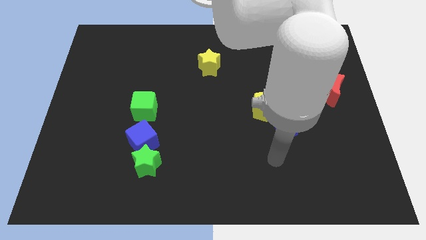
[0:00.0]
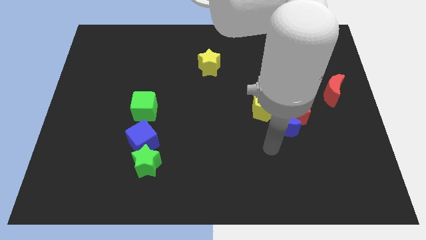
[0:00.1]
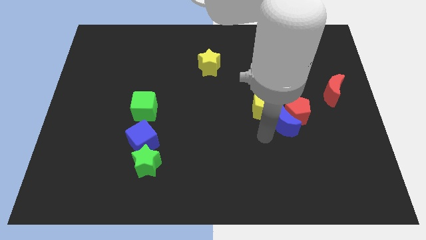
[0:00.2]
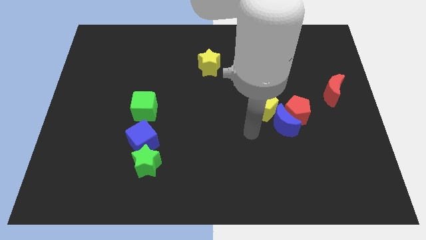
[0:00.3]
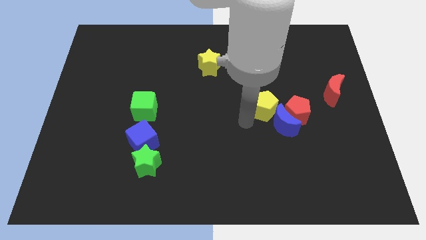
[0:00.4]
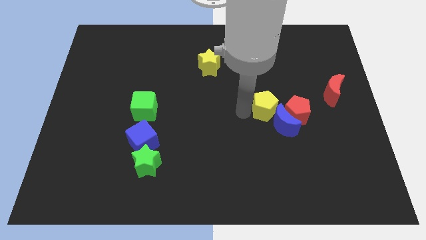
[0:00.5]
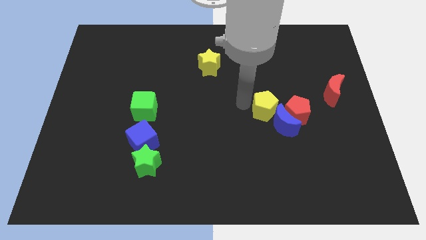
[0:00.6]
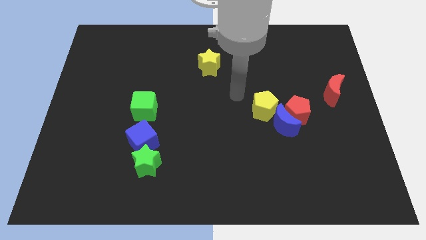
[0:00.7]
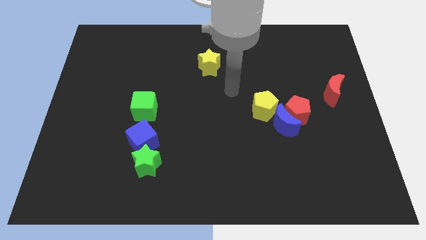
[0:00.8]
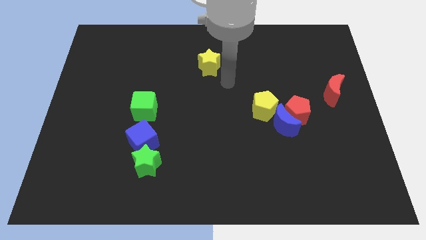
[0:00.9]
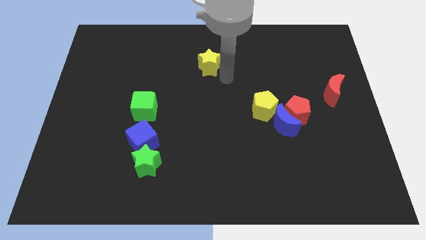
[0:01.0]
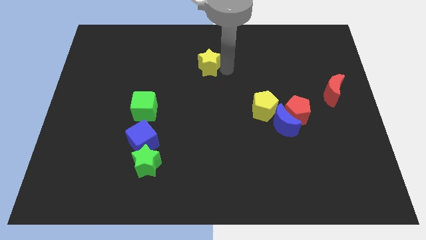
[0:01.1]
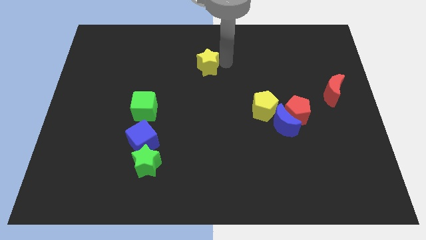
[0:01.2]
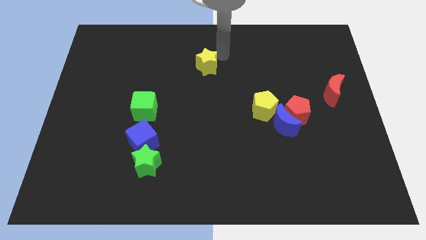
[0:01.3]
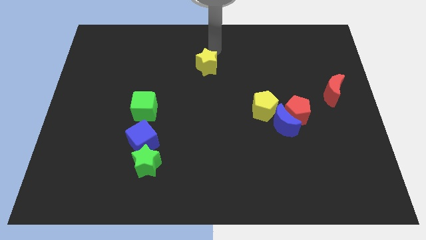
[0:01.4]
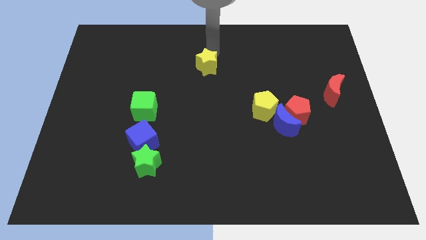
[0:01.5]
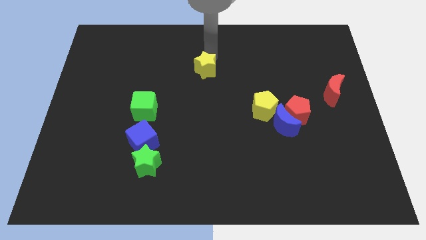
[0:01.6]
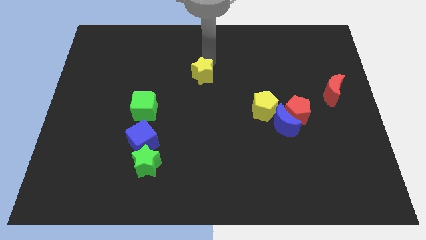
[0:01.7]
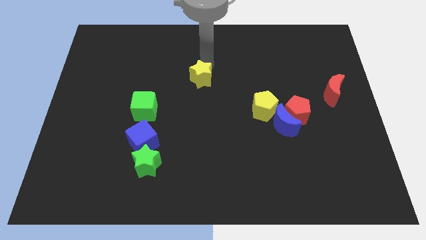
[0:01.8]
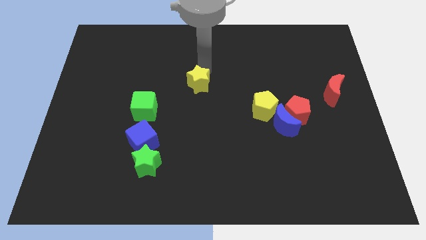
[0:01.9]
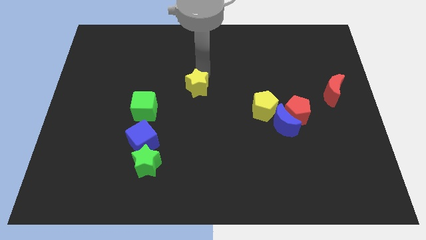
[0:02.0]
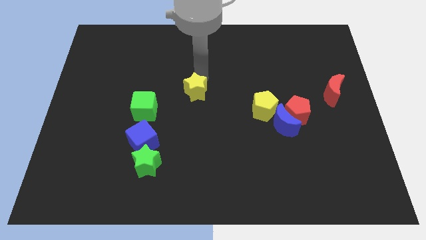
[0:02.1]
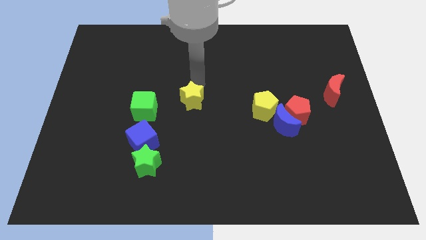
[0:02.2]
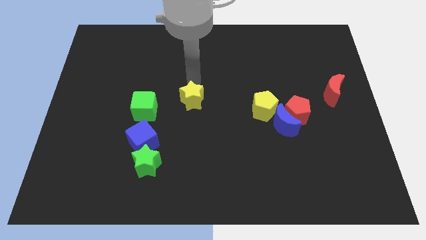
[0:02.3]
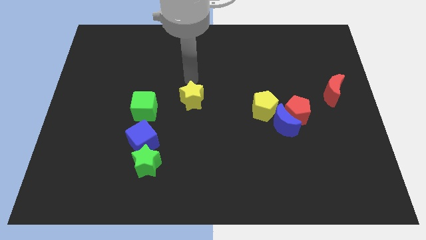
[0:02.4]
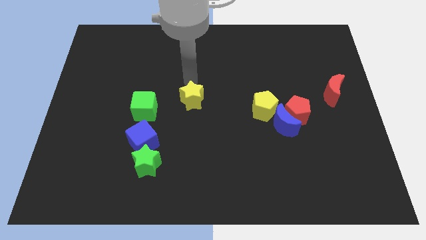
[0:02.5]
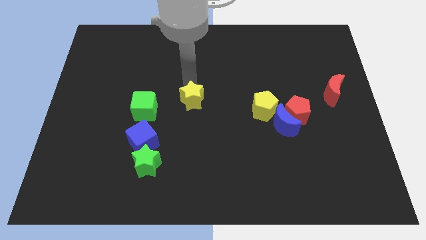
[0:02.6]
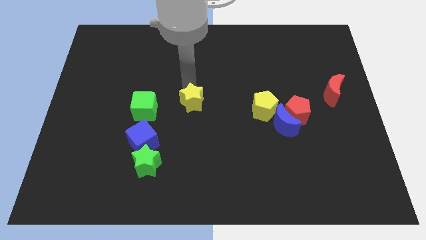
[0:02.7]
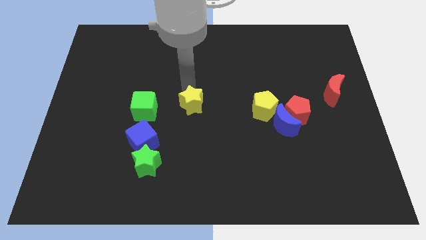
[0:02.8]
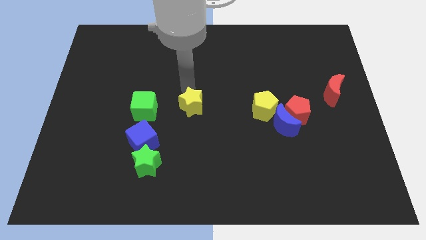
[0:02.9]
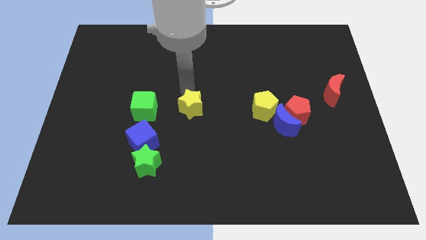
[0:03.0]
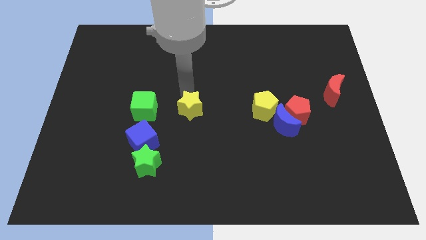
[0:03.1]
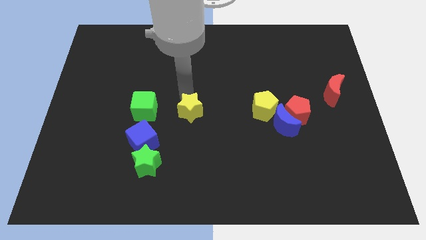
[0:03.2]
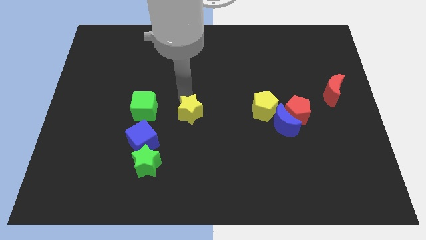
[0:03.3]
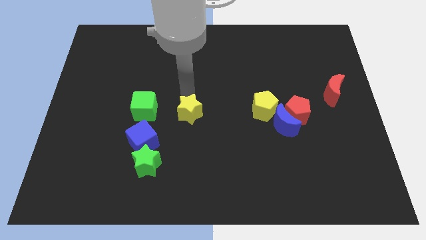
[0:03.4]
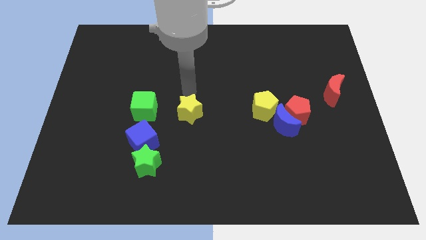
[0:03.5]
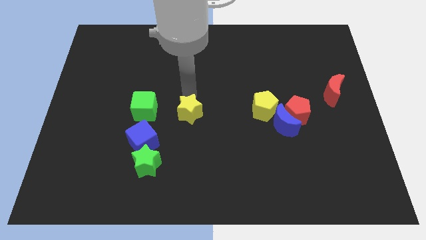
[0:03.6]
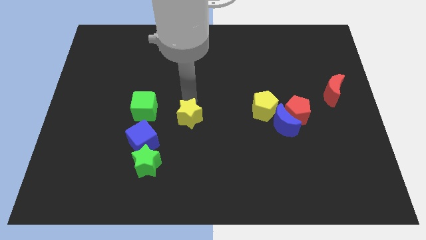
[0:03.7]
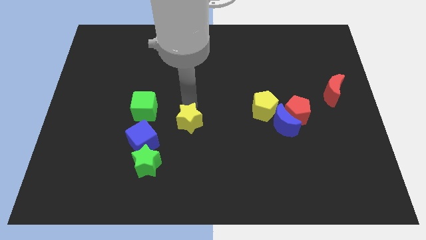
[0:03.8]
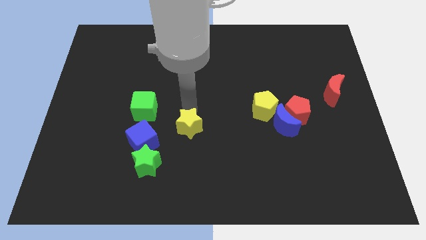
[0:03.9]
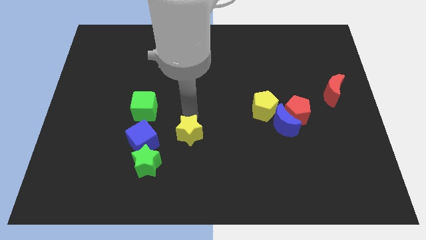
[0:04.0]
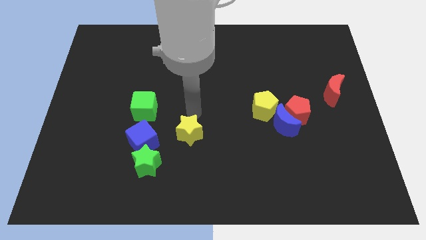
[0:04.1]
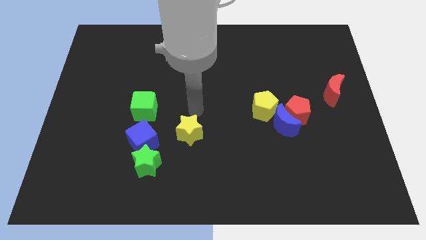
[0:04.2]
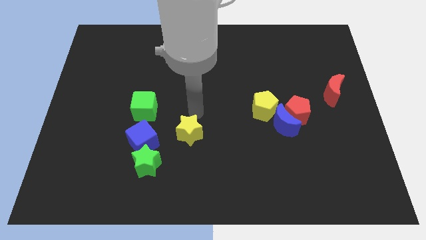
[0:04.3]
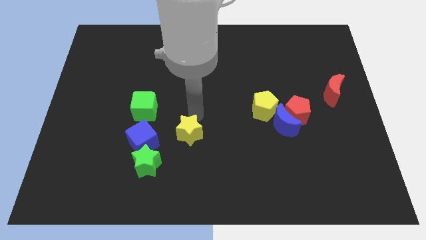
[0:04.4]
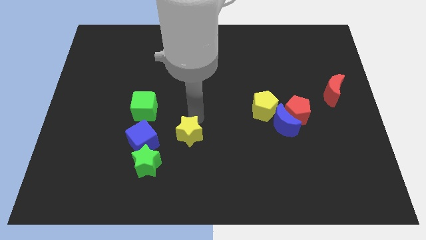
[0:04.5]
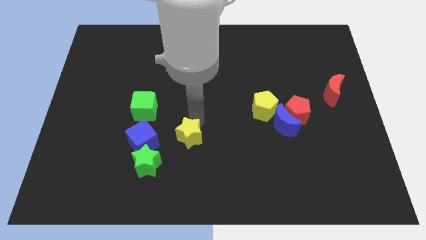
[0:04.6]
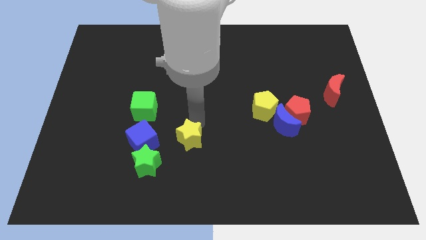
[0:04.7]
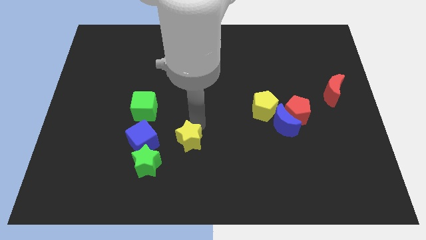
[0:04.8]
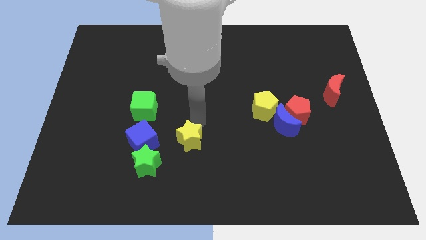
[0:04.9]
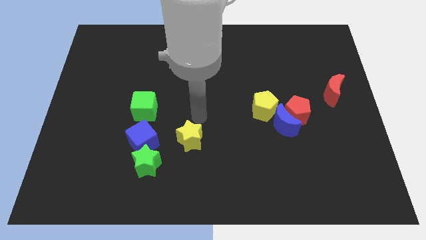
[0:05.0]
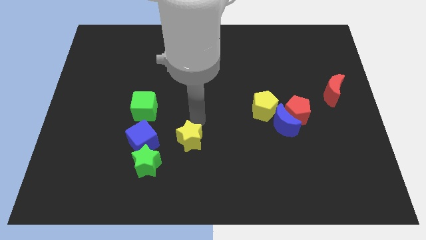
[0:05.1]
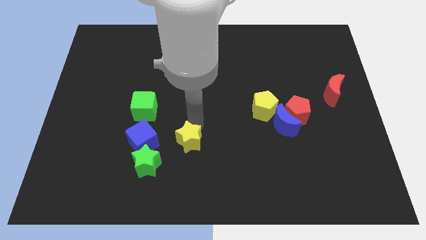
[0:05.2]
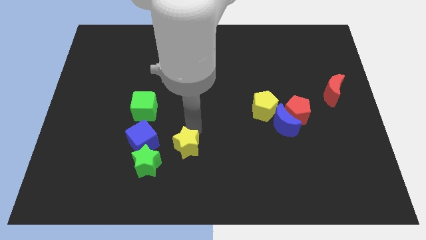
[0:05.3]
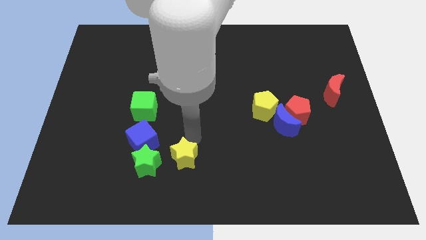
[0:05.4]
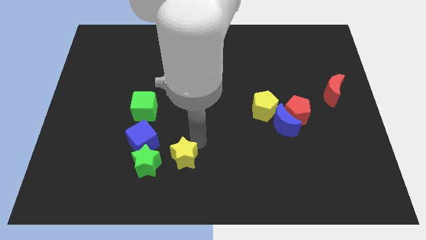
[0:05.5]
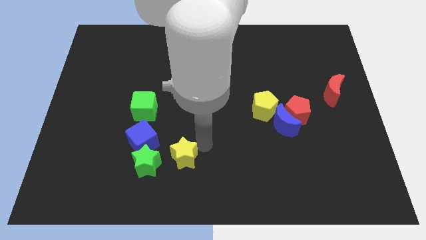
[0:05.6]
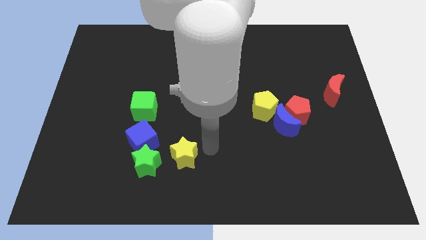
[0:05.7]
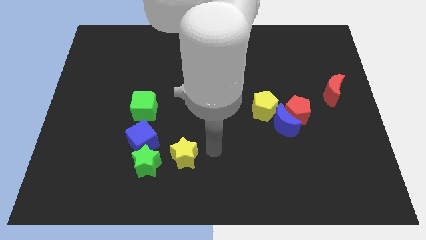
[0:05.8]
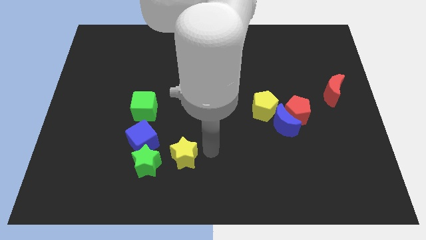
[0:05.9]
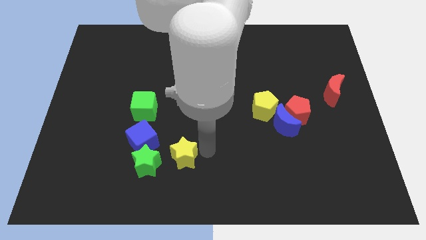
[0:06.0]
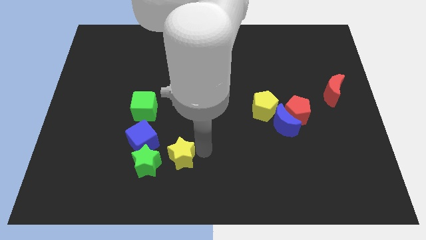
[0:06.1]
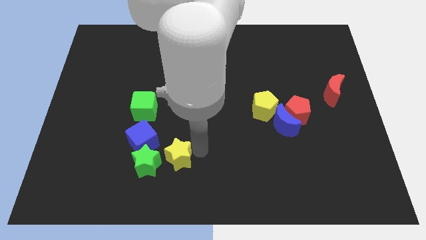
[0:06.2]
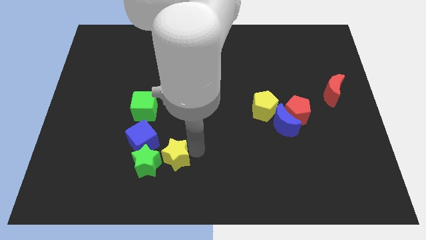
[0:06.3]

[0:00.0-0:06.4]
slide the yellow star to the green star

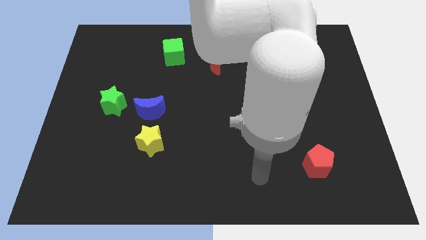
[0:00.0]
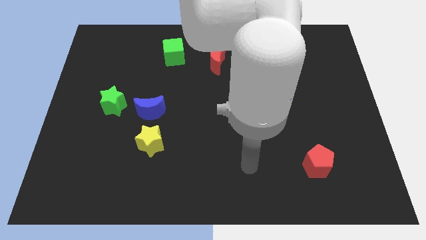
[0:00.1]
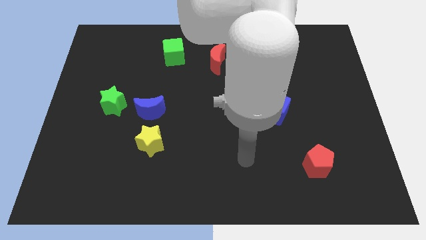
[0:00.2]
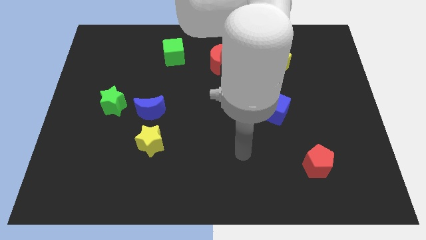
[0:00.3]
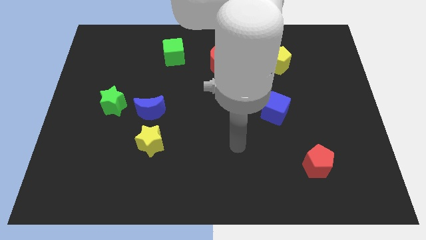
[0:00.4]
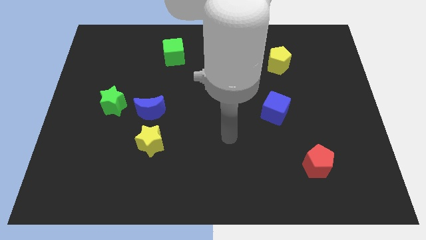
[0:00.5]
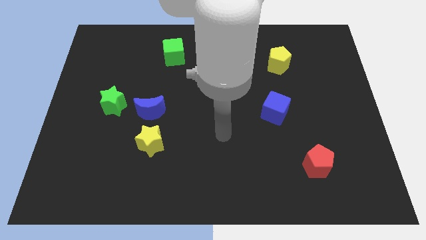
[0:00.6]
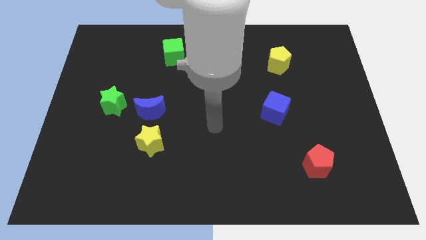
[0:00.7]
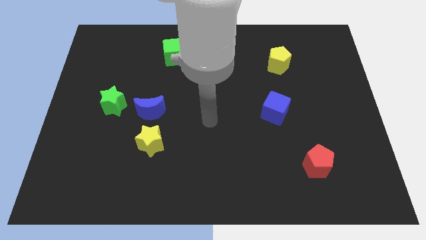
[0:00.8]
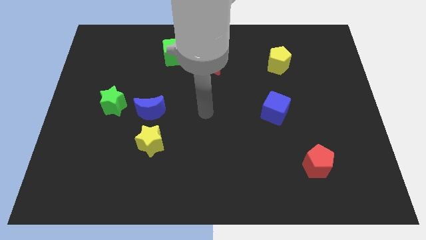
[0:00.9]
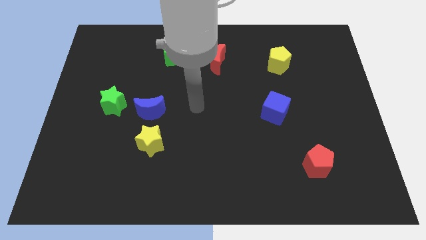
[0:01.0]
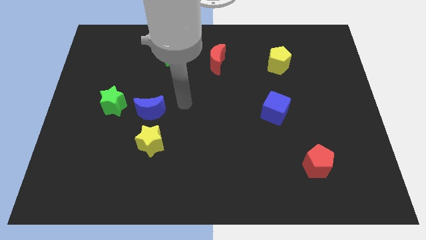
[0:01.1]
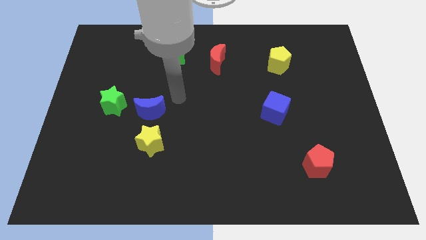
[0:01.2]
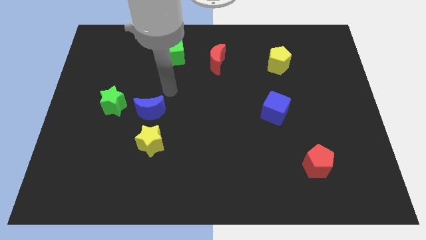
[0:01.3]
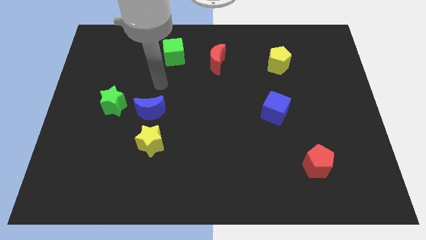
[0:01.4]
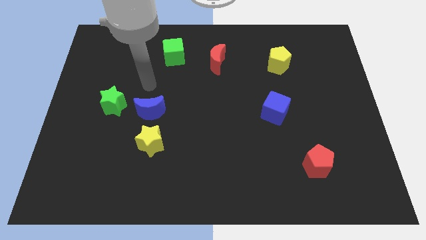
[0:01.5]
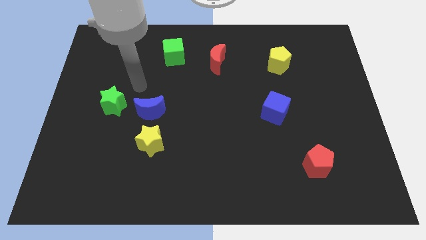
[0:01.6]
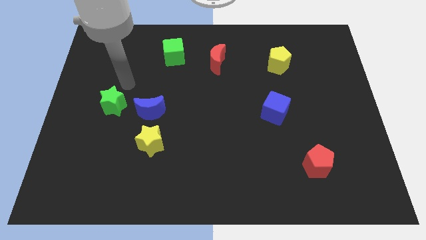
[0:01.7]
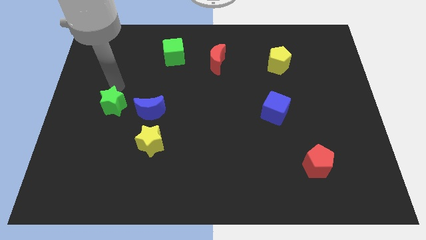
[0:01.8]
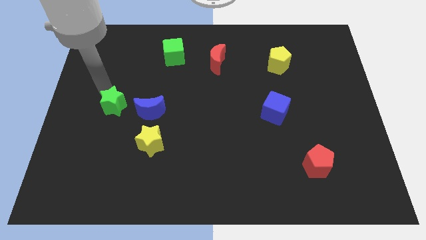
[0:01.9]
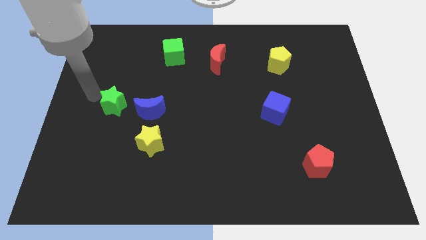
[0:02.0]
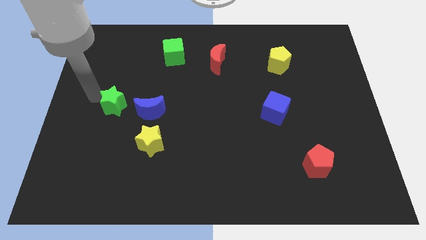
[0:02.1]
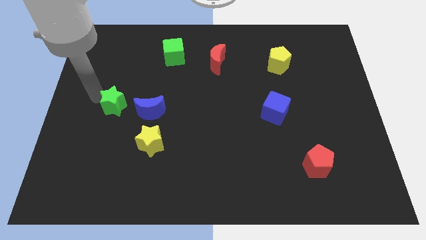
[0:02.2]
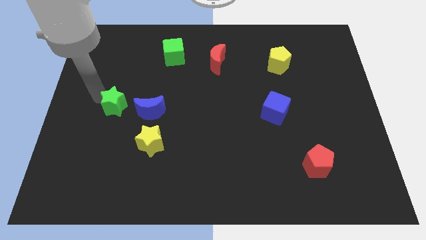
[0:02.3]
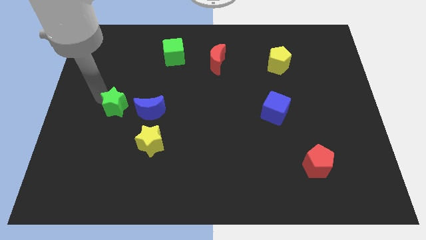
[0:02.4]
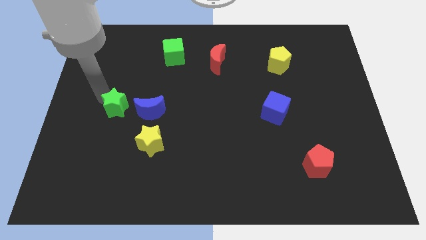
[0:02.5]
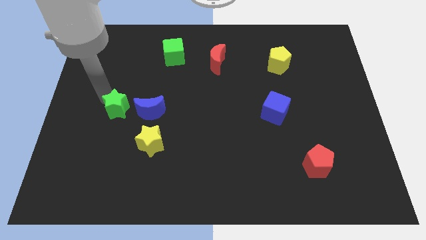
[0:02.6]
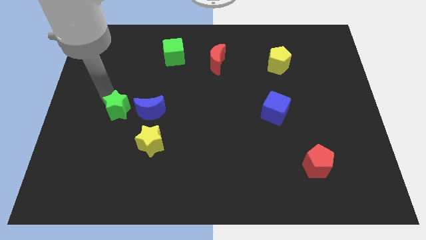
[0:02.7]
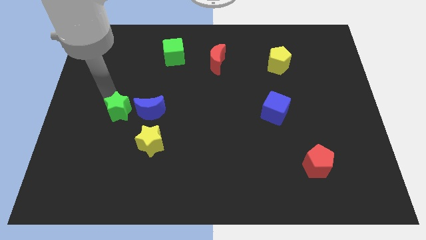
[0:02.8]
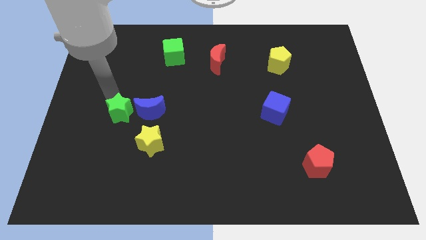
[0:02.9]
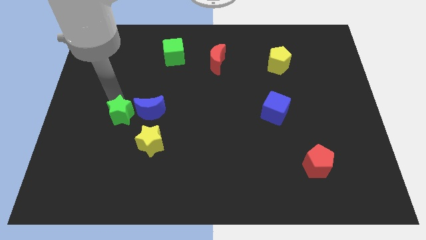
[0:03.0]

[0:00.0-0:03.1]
push the green star next to the blue moon
